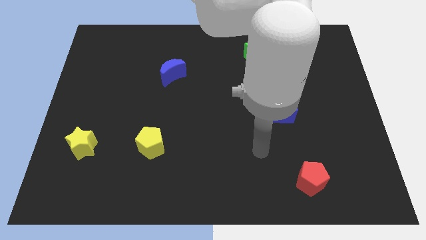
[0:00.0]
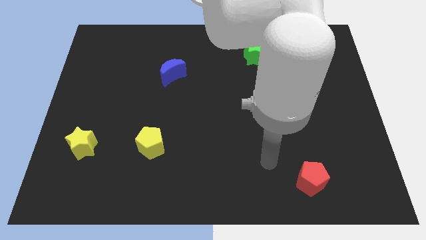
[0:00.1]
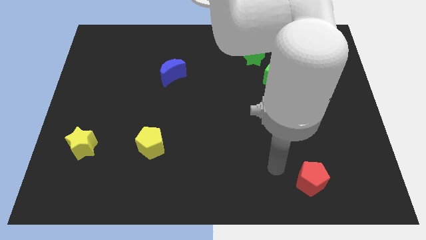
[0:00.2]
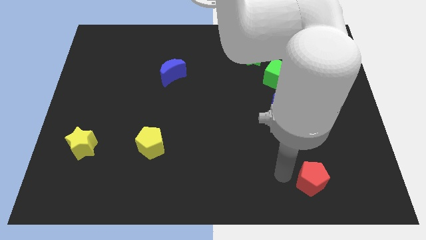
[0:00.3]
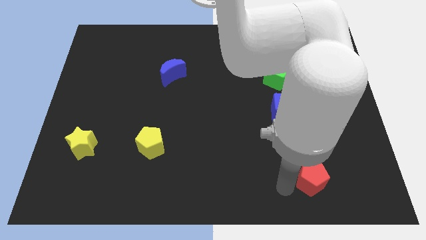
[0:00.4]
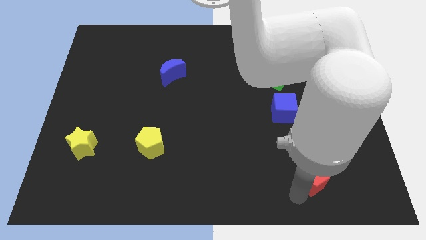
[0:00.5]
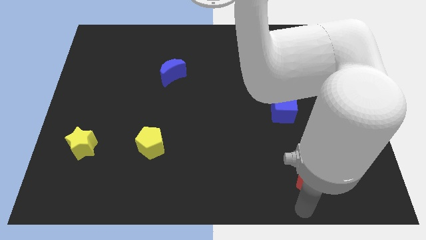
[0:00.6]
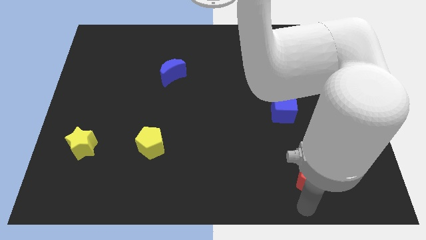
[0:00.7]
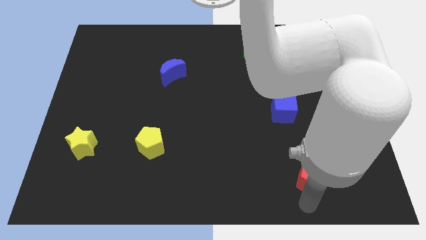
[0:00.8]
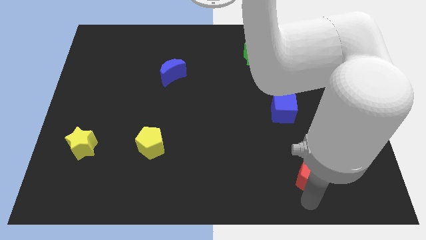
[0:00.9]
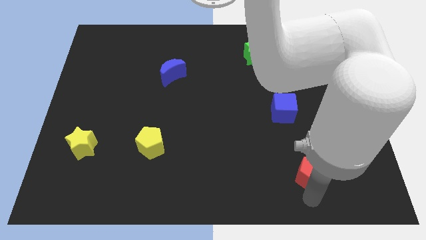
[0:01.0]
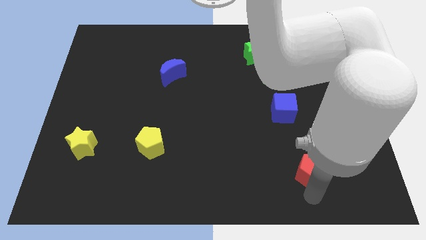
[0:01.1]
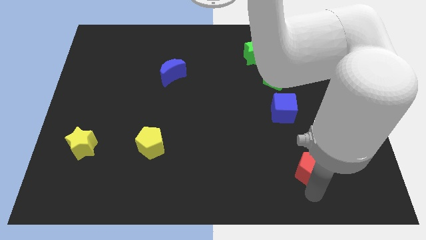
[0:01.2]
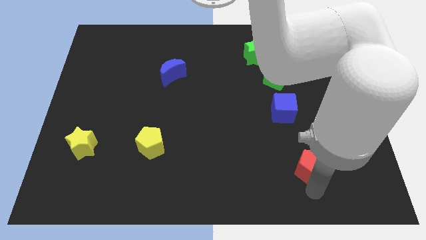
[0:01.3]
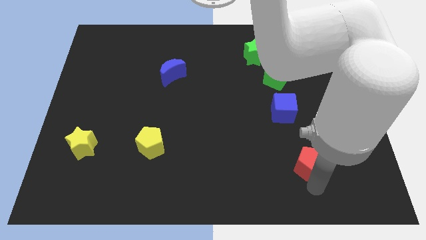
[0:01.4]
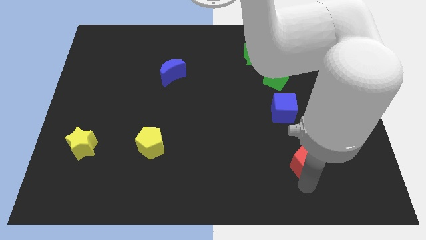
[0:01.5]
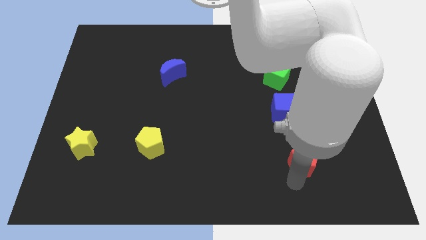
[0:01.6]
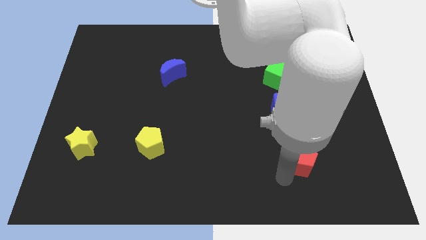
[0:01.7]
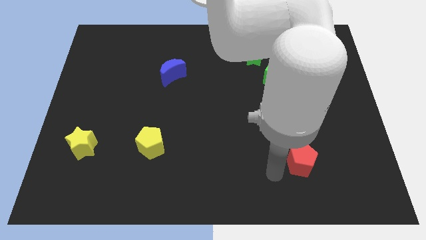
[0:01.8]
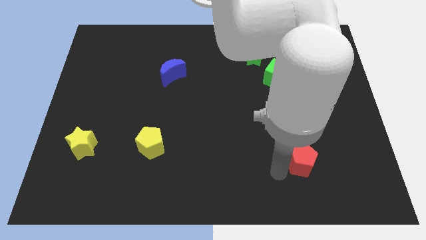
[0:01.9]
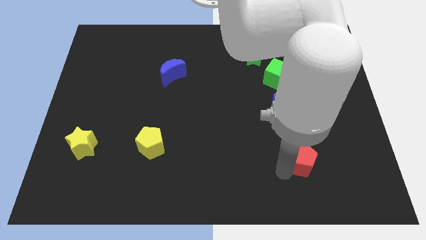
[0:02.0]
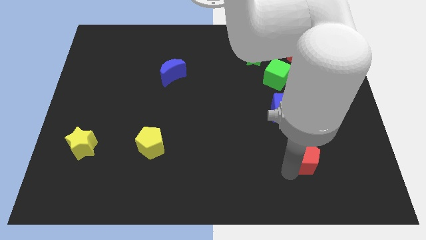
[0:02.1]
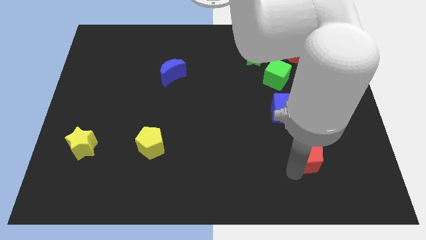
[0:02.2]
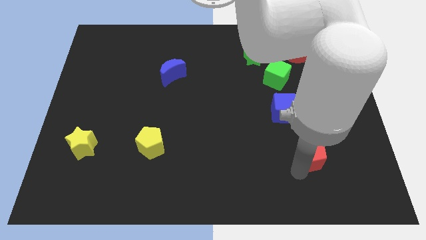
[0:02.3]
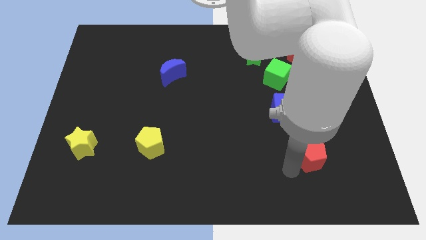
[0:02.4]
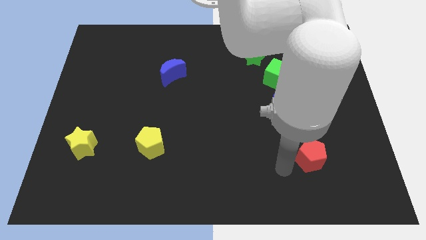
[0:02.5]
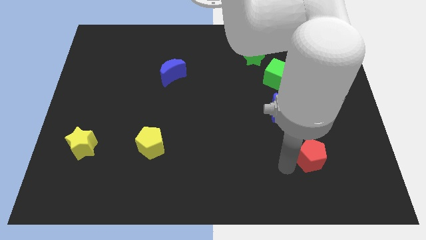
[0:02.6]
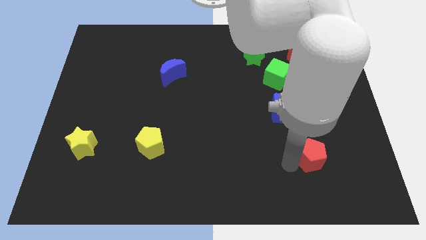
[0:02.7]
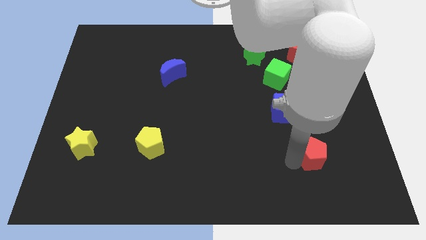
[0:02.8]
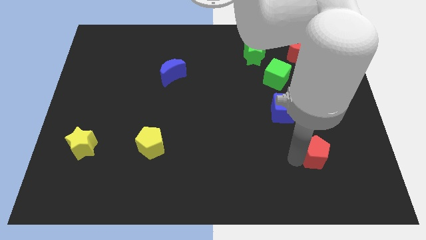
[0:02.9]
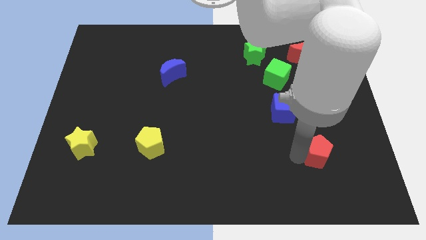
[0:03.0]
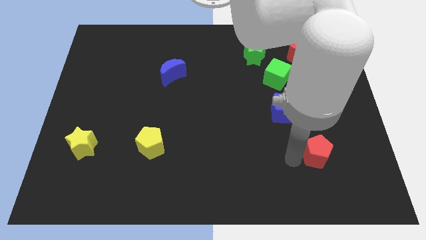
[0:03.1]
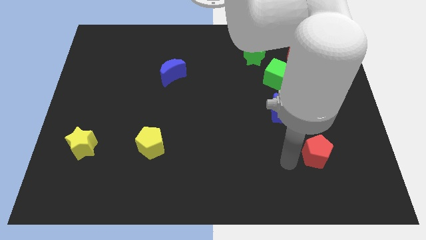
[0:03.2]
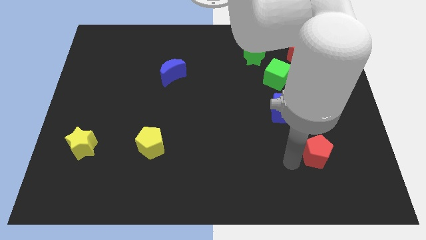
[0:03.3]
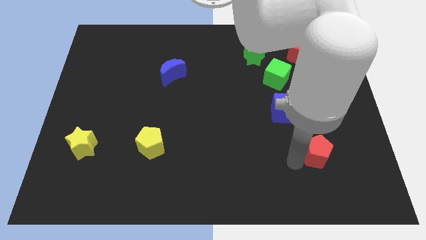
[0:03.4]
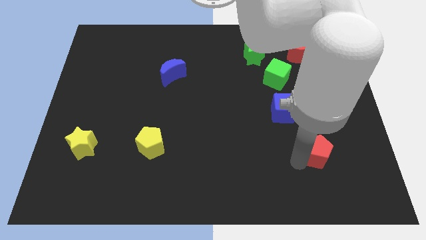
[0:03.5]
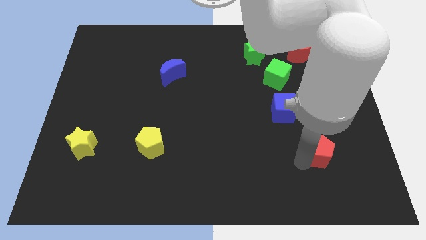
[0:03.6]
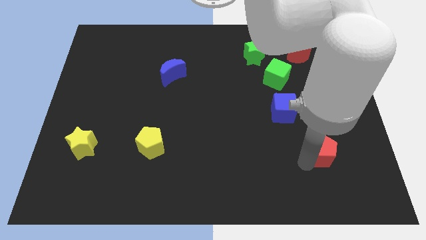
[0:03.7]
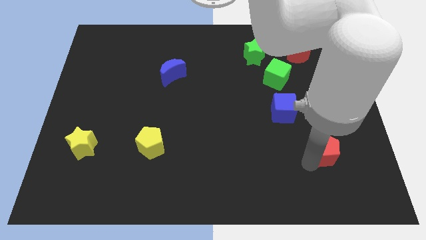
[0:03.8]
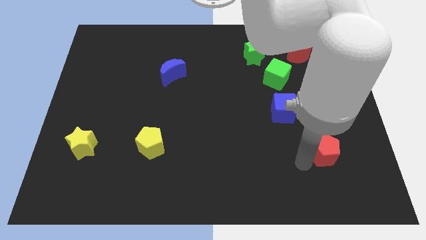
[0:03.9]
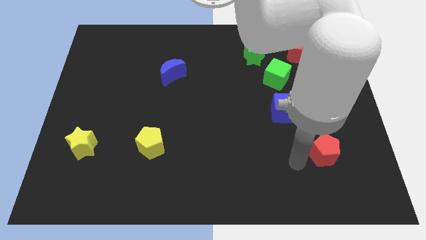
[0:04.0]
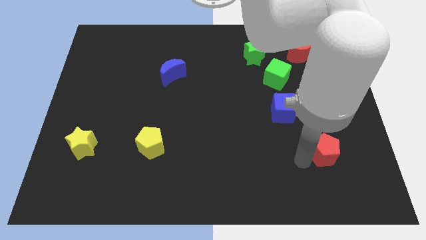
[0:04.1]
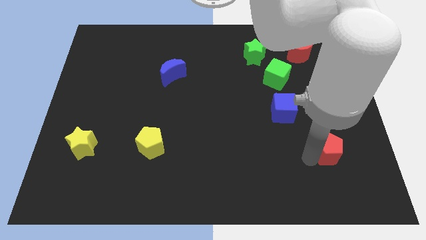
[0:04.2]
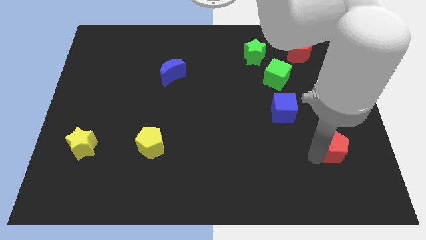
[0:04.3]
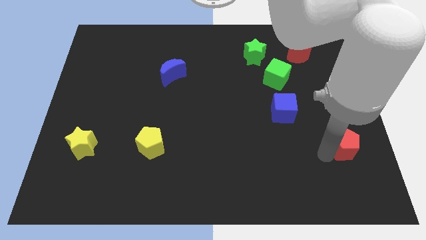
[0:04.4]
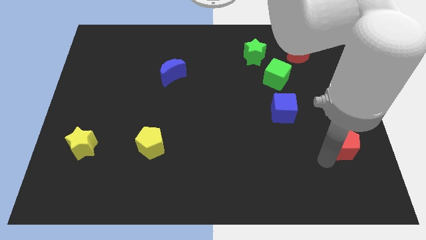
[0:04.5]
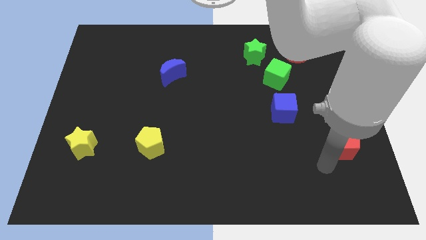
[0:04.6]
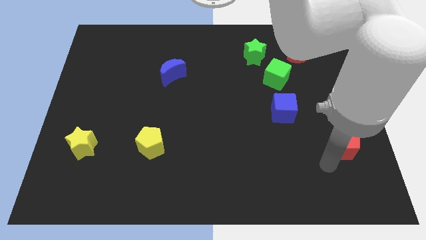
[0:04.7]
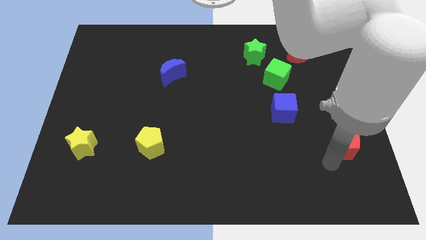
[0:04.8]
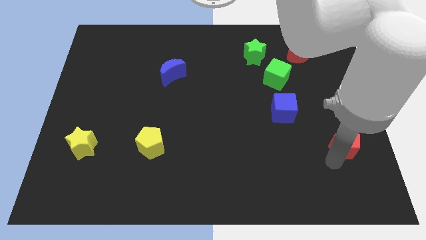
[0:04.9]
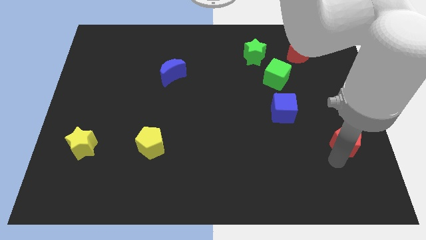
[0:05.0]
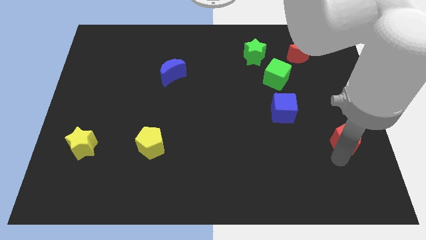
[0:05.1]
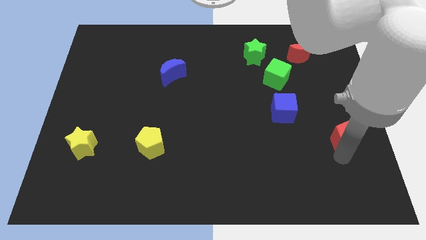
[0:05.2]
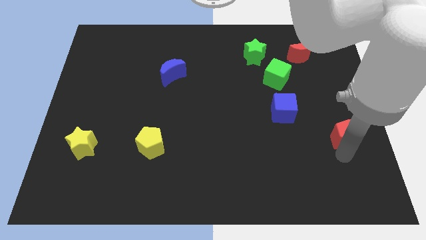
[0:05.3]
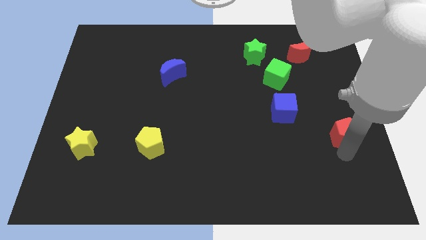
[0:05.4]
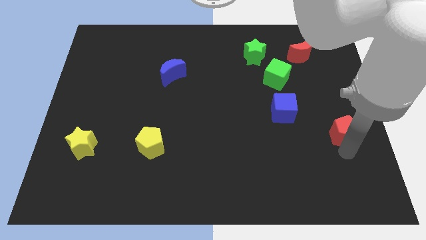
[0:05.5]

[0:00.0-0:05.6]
slide the red pentagon to the right side

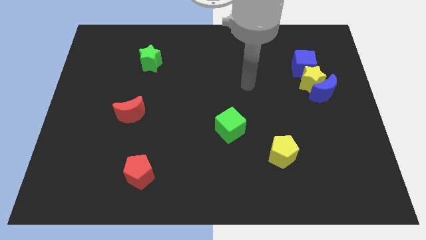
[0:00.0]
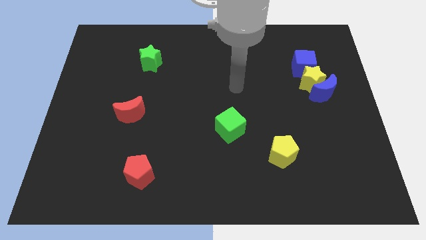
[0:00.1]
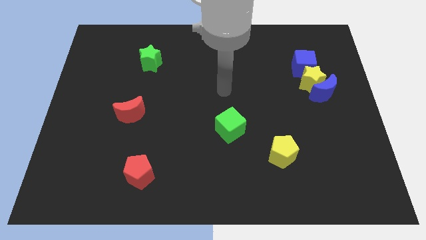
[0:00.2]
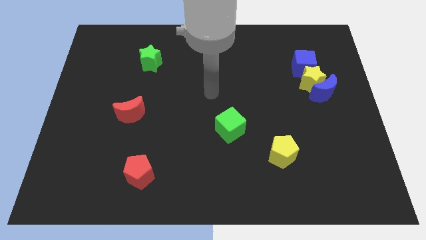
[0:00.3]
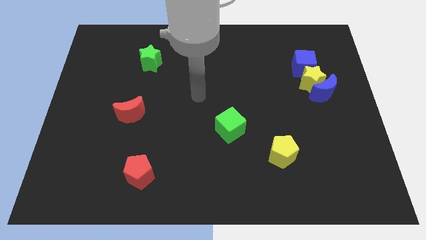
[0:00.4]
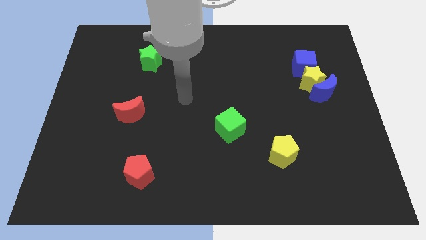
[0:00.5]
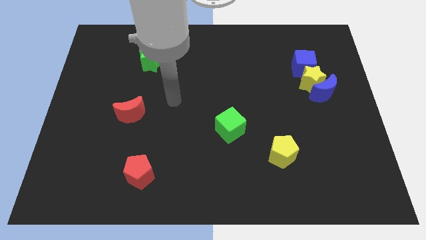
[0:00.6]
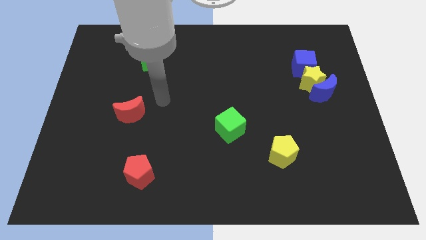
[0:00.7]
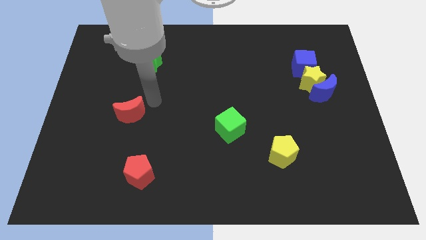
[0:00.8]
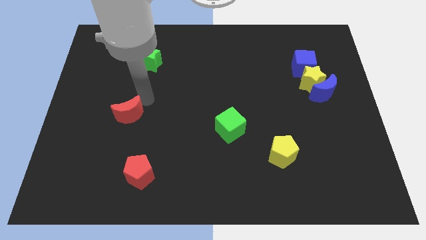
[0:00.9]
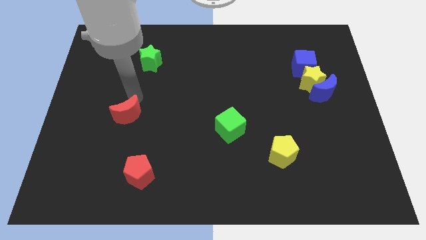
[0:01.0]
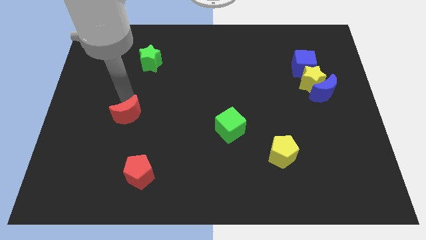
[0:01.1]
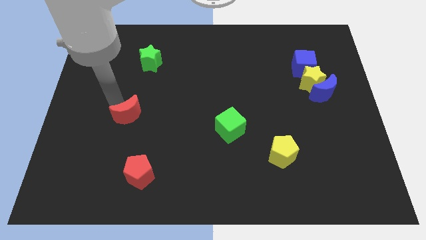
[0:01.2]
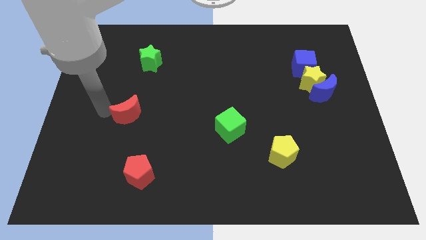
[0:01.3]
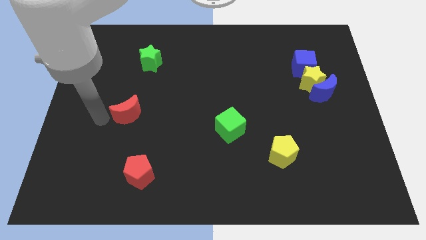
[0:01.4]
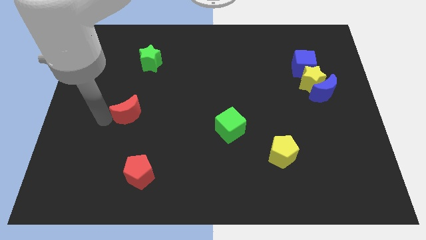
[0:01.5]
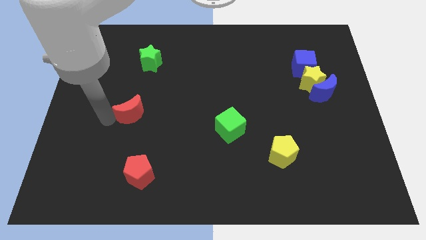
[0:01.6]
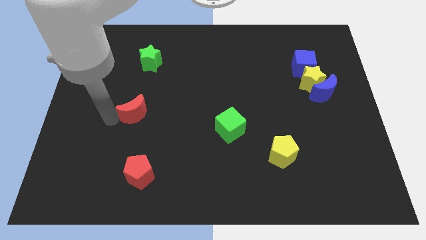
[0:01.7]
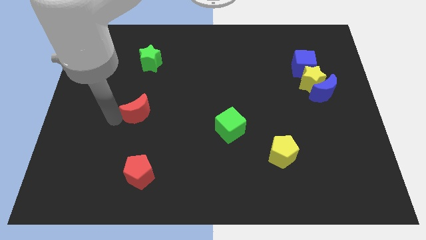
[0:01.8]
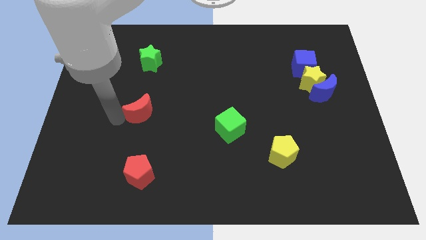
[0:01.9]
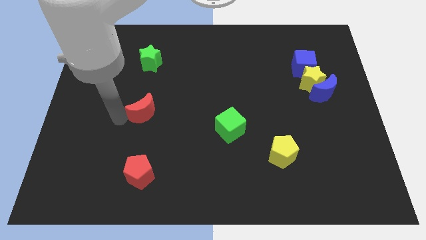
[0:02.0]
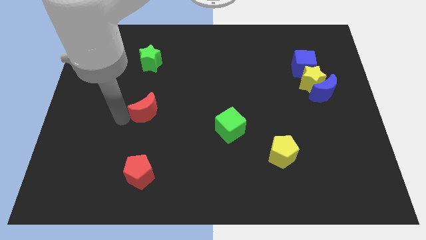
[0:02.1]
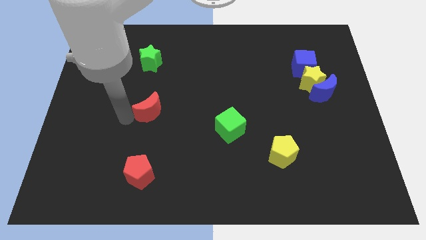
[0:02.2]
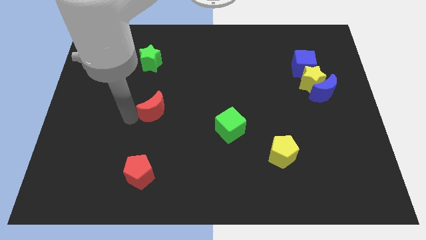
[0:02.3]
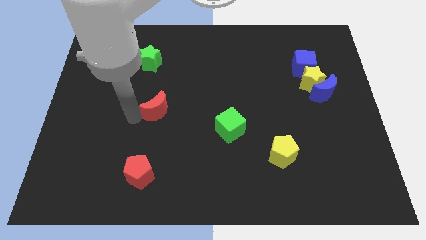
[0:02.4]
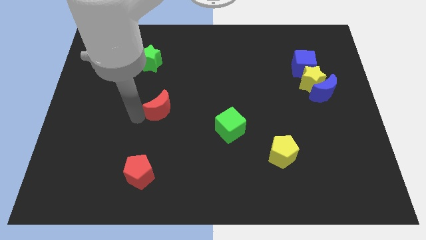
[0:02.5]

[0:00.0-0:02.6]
put the red moon to the center
